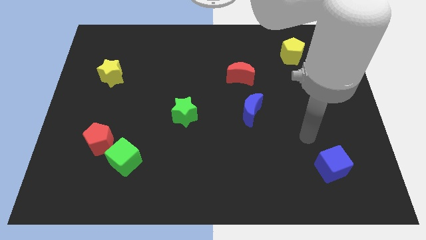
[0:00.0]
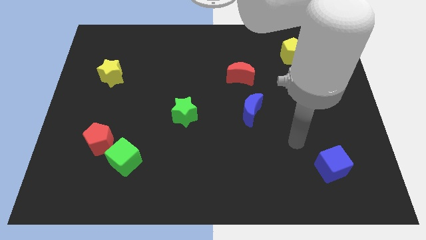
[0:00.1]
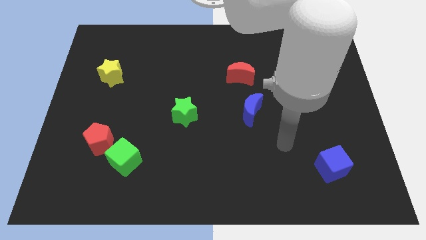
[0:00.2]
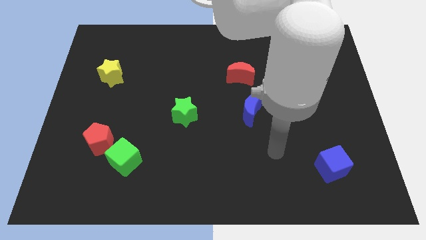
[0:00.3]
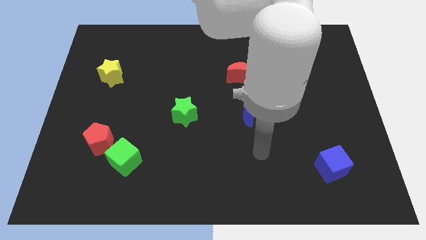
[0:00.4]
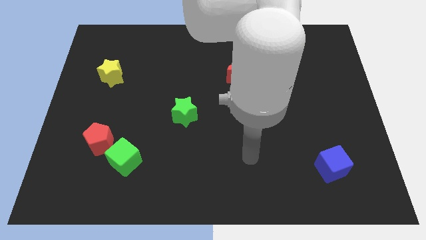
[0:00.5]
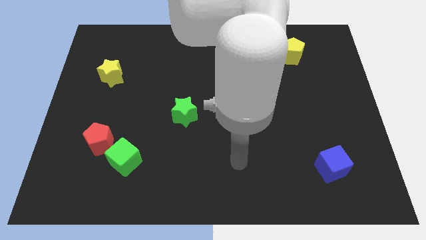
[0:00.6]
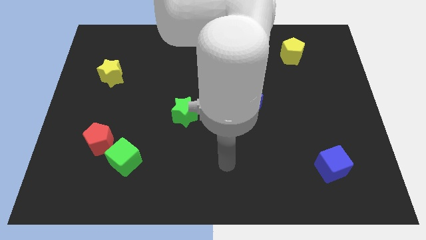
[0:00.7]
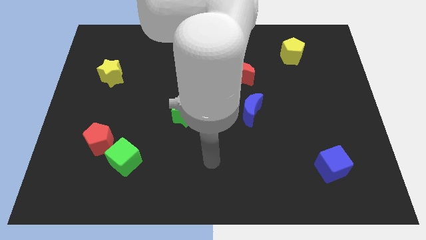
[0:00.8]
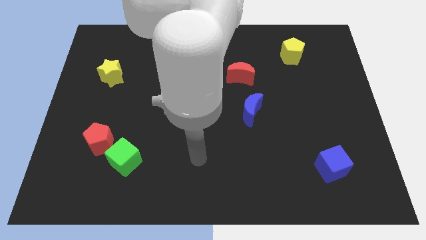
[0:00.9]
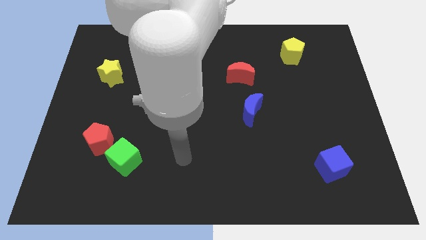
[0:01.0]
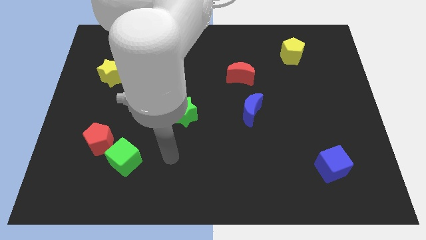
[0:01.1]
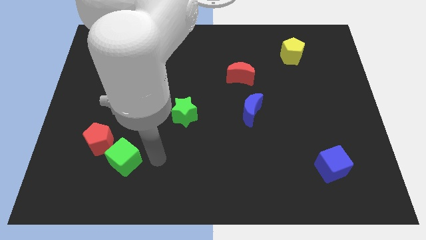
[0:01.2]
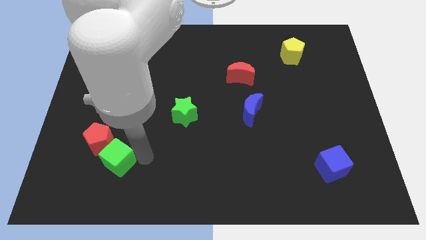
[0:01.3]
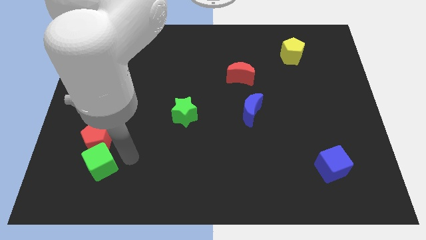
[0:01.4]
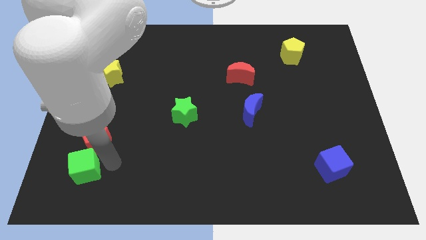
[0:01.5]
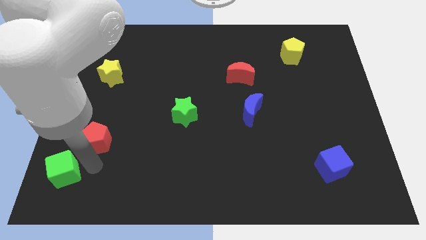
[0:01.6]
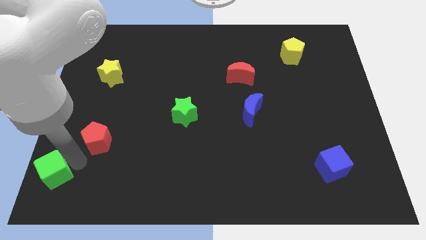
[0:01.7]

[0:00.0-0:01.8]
move the red pentagon away from the green cube

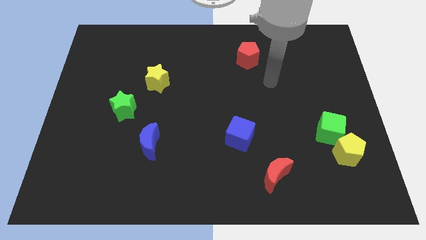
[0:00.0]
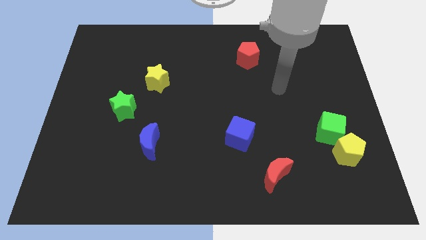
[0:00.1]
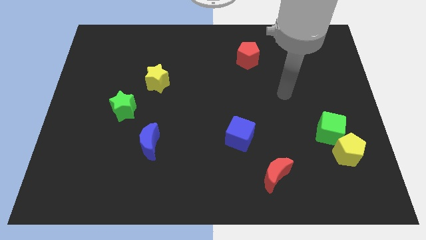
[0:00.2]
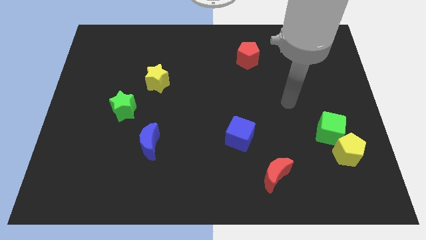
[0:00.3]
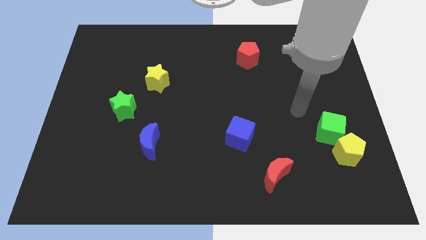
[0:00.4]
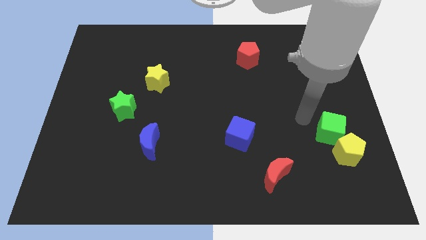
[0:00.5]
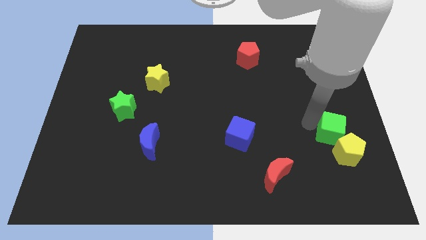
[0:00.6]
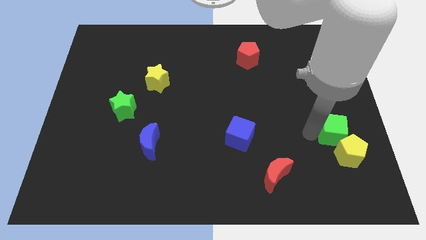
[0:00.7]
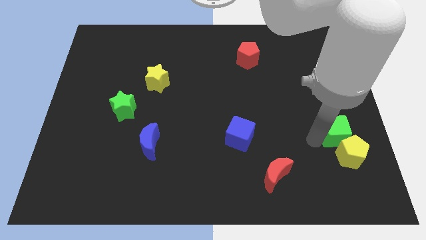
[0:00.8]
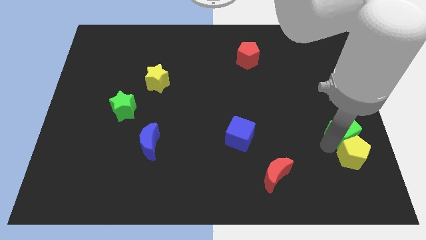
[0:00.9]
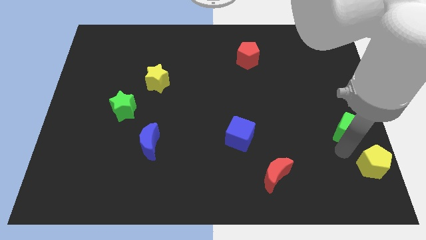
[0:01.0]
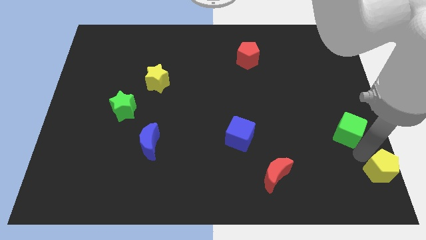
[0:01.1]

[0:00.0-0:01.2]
separate the green cube from the yellow pentagon

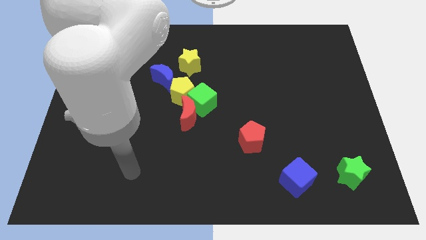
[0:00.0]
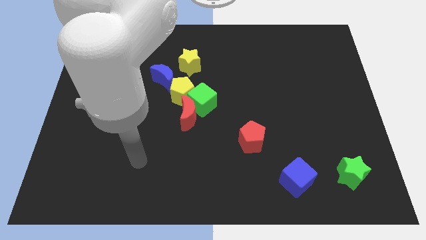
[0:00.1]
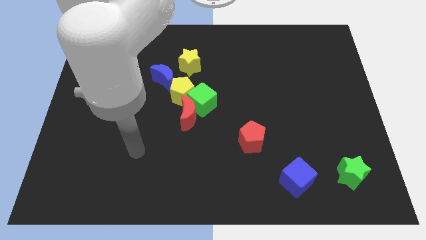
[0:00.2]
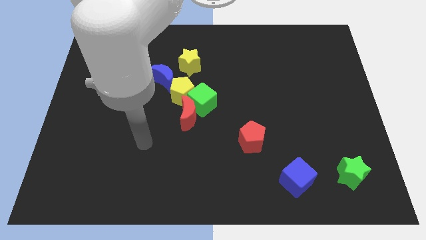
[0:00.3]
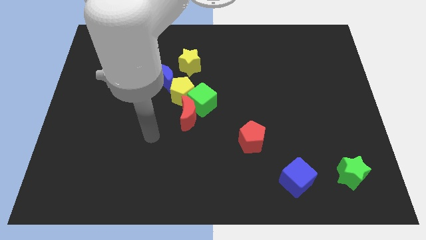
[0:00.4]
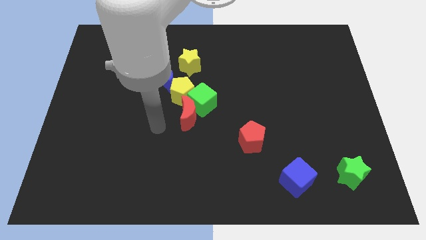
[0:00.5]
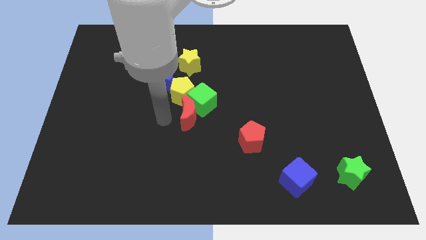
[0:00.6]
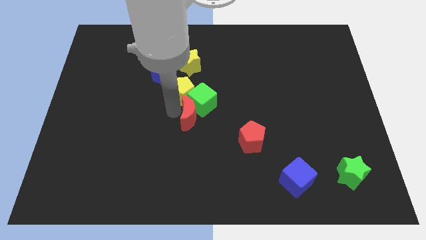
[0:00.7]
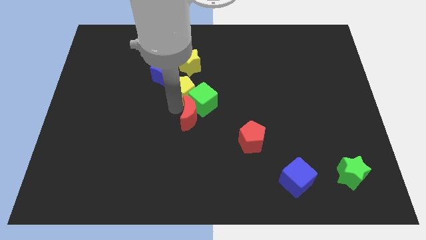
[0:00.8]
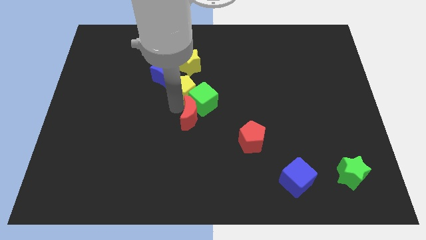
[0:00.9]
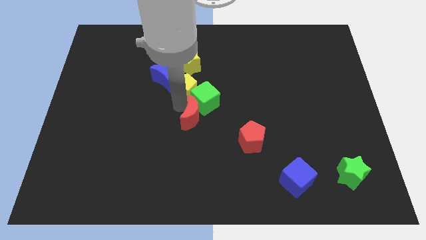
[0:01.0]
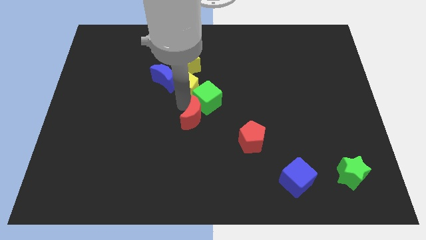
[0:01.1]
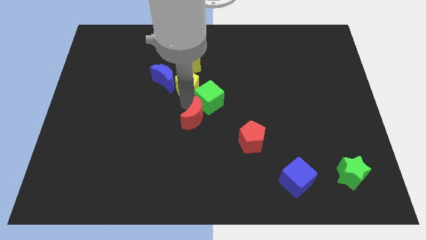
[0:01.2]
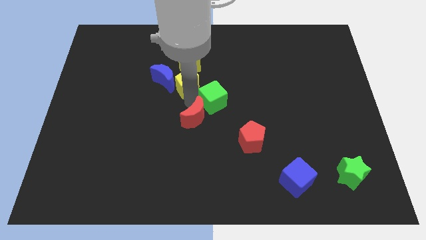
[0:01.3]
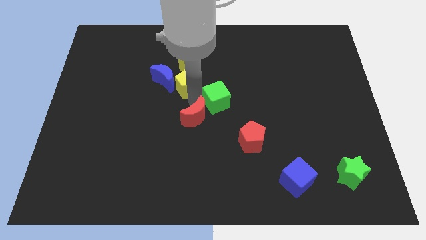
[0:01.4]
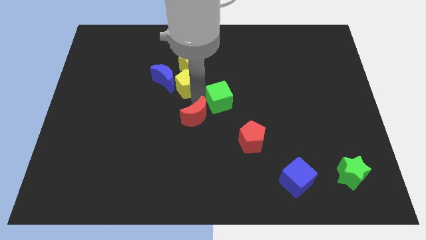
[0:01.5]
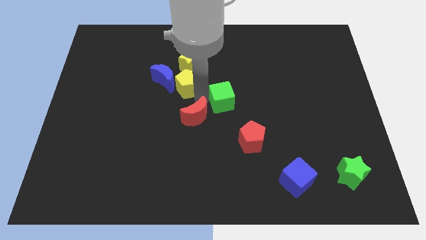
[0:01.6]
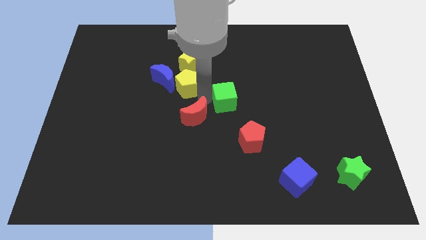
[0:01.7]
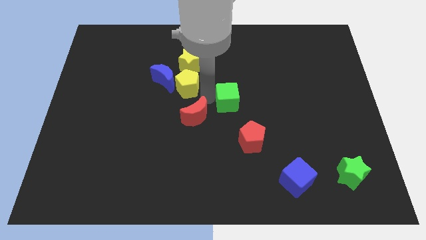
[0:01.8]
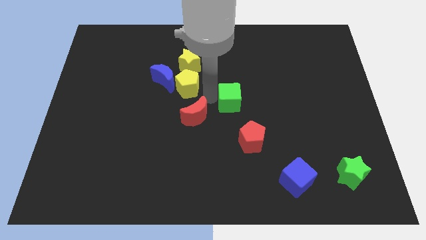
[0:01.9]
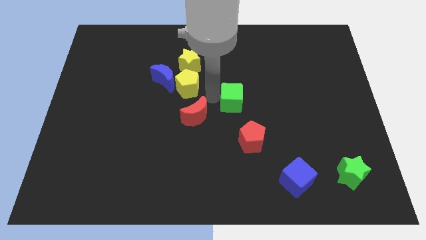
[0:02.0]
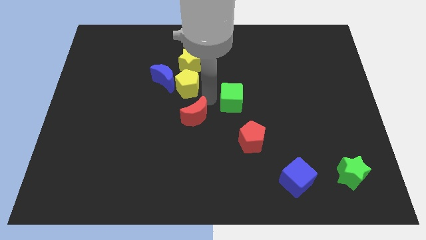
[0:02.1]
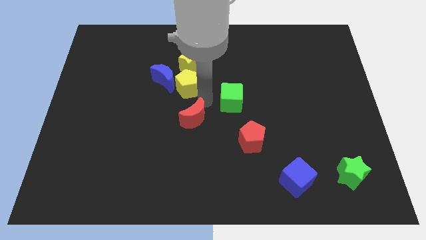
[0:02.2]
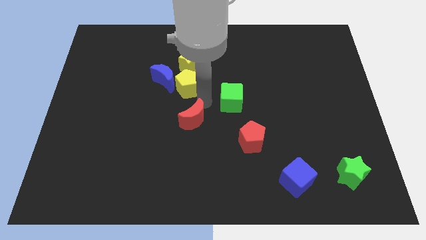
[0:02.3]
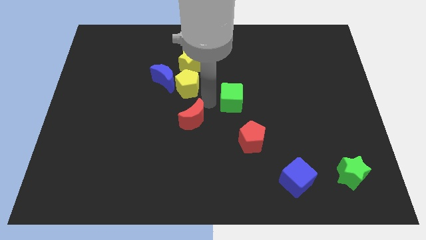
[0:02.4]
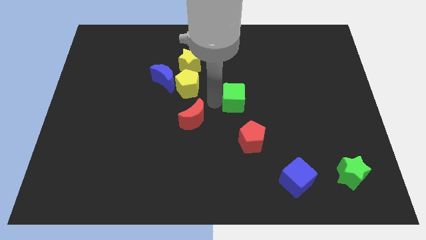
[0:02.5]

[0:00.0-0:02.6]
pull the green cube apart from the red moon and yellow pentagon

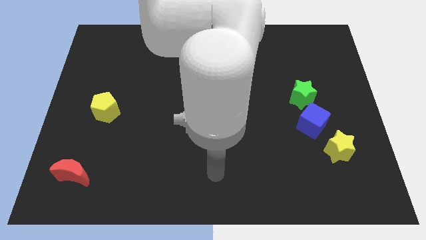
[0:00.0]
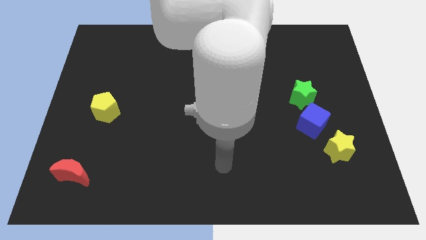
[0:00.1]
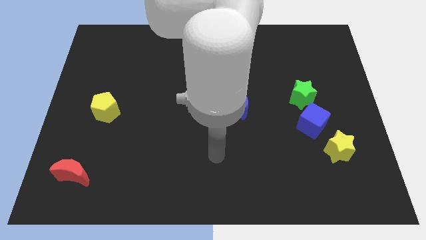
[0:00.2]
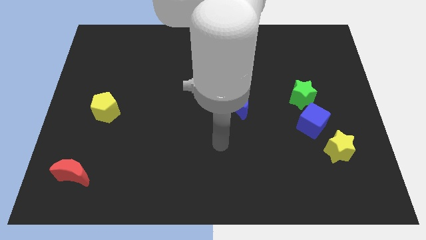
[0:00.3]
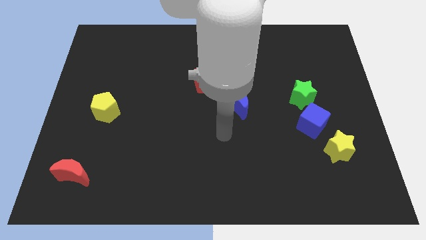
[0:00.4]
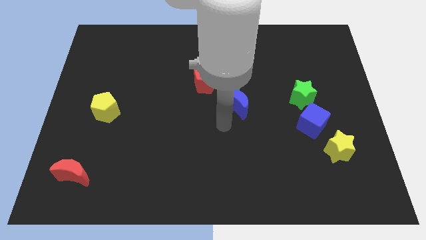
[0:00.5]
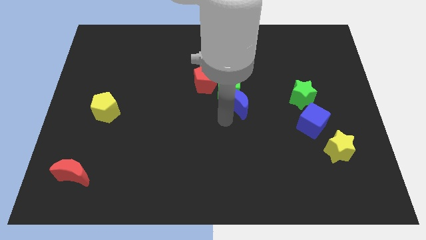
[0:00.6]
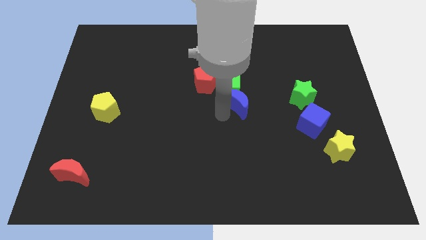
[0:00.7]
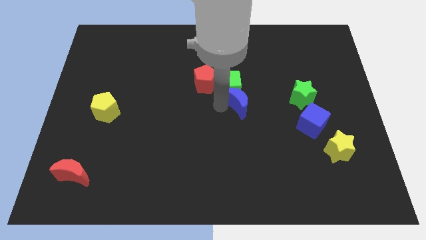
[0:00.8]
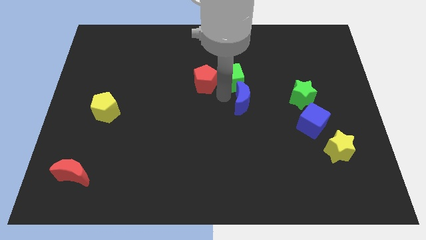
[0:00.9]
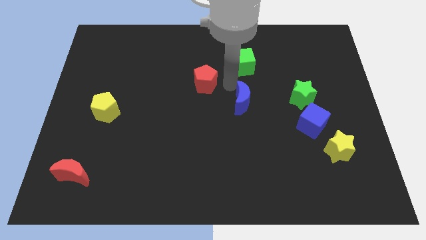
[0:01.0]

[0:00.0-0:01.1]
move the blue moon away from the green cube

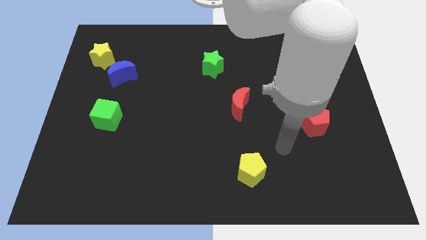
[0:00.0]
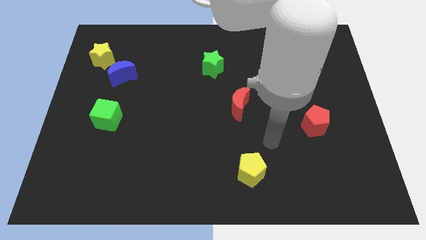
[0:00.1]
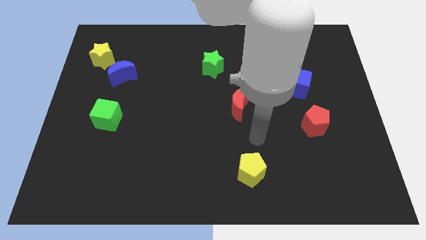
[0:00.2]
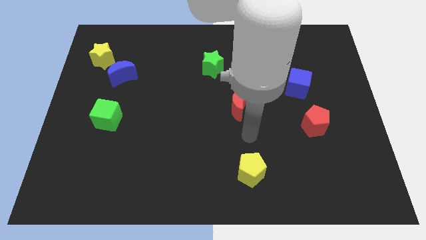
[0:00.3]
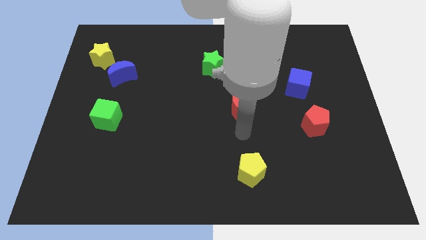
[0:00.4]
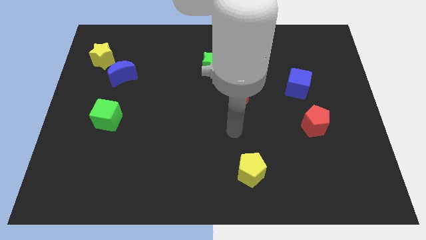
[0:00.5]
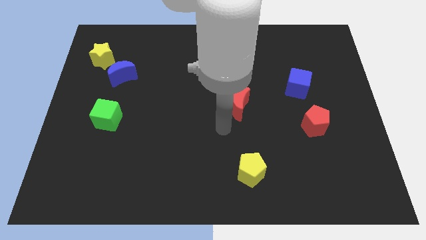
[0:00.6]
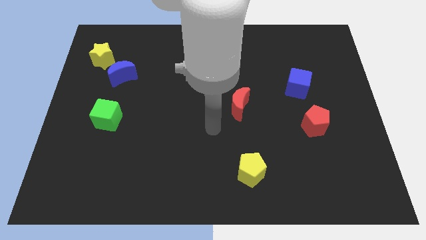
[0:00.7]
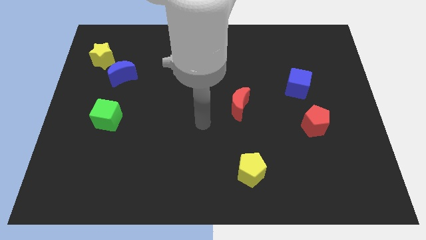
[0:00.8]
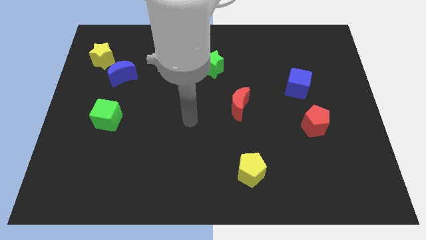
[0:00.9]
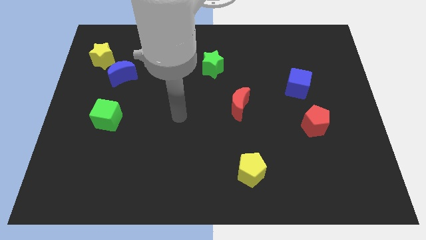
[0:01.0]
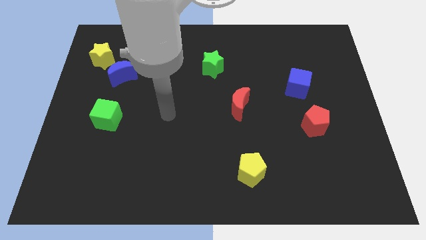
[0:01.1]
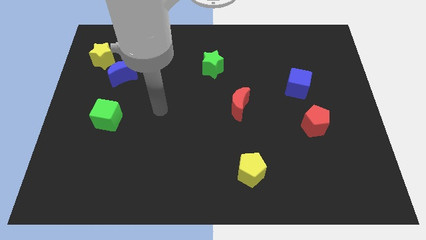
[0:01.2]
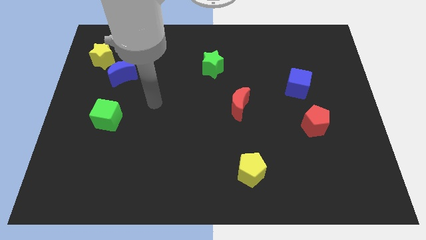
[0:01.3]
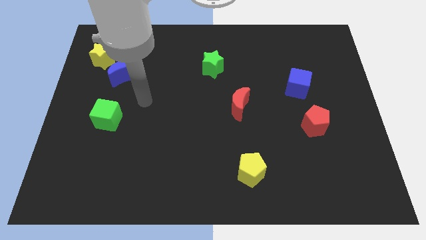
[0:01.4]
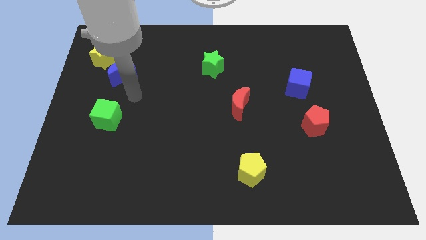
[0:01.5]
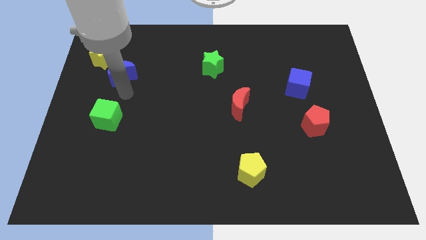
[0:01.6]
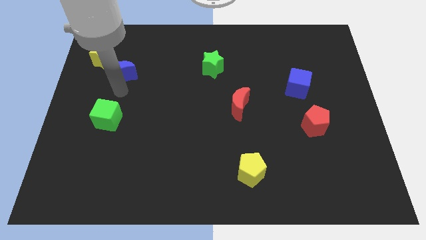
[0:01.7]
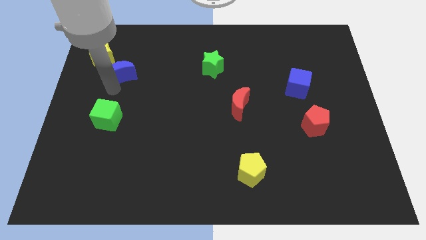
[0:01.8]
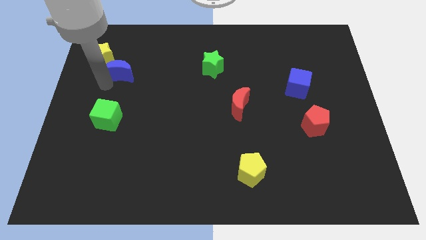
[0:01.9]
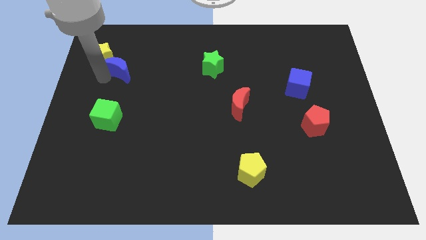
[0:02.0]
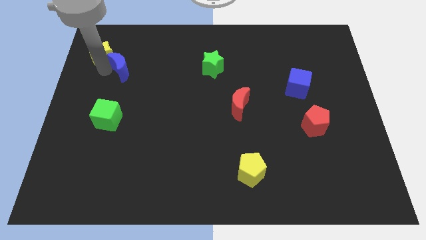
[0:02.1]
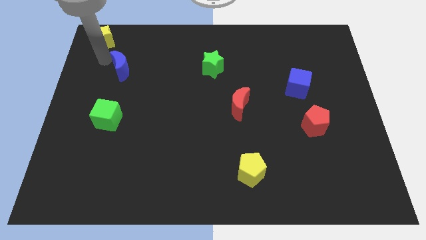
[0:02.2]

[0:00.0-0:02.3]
move the blue moon away from the yellow star

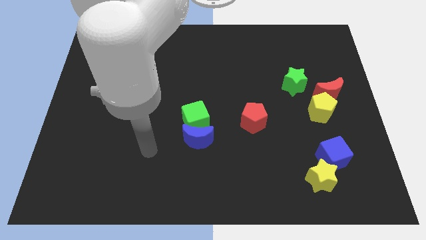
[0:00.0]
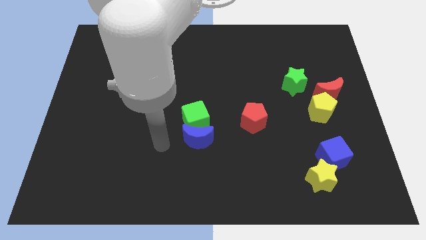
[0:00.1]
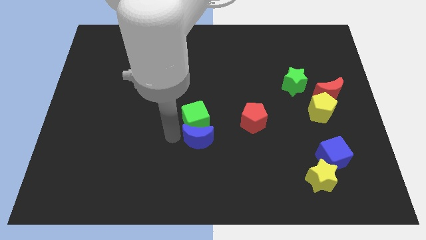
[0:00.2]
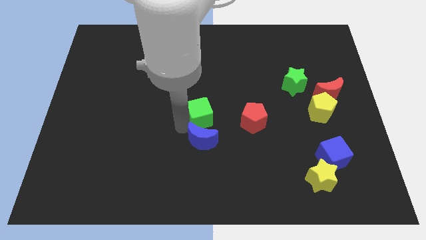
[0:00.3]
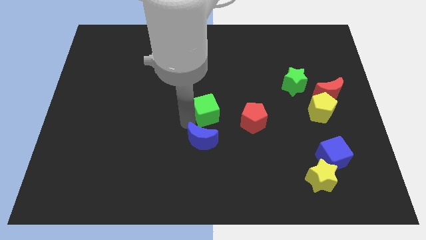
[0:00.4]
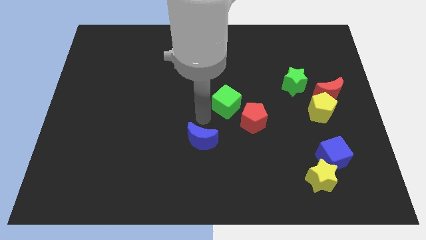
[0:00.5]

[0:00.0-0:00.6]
separate the blue moon from the green cube
